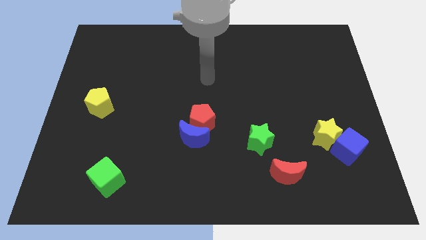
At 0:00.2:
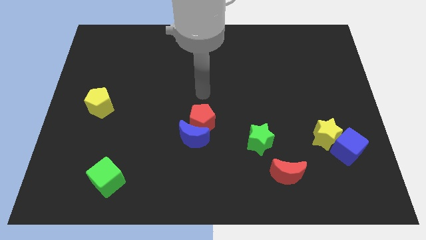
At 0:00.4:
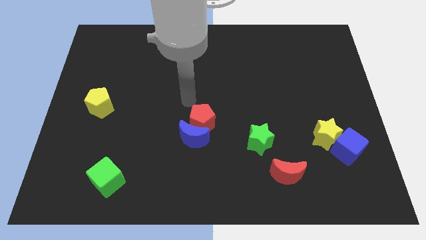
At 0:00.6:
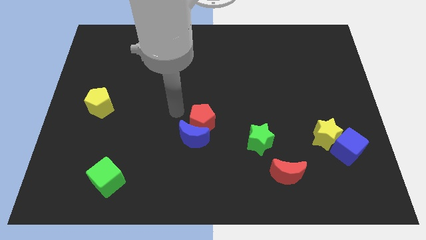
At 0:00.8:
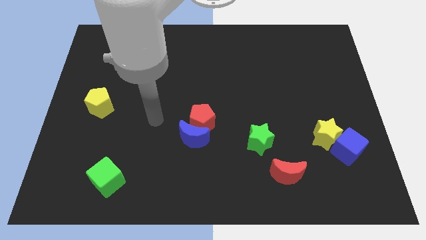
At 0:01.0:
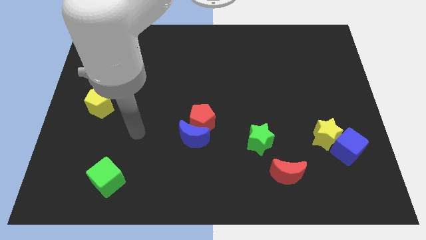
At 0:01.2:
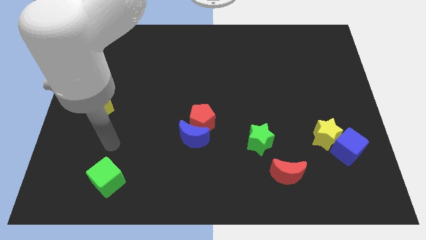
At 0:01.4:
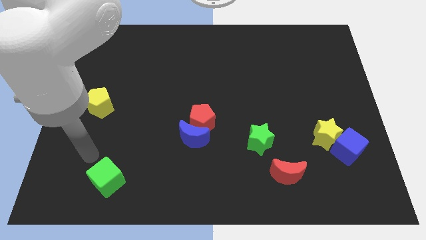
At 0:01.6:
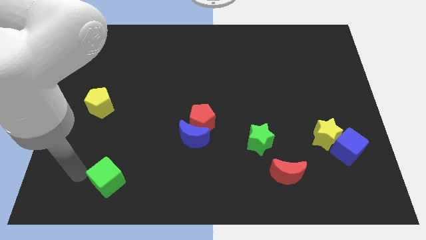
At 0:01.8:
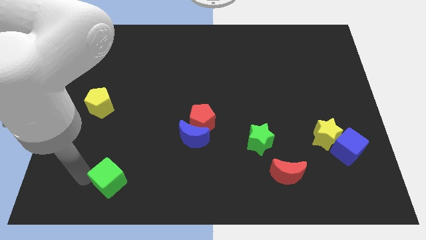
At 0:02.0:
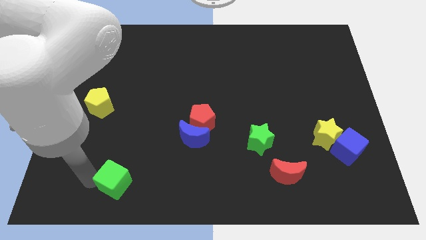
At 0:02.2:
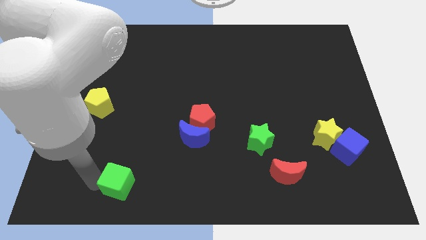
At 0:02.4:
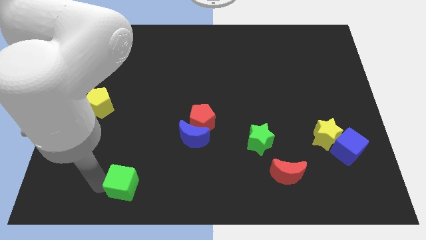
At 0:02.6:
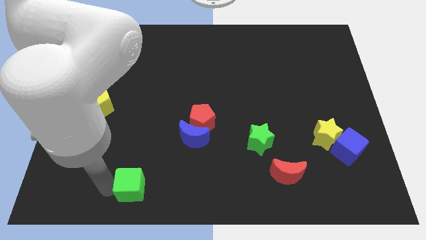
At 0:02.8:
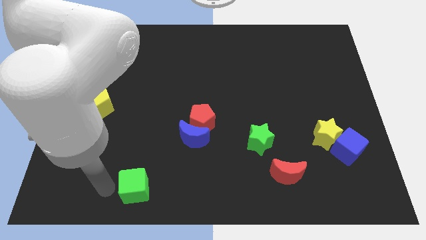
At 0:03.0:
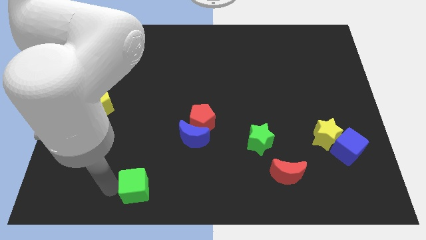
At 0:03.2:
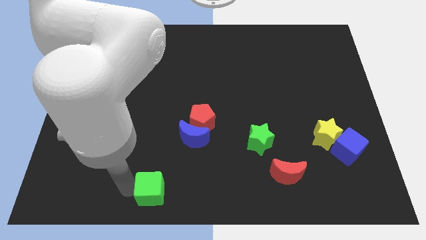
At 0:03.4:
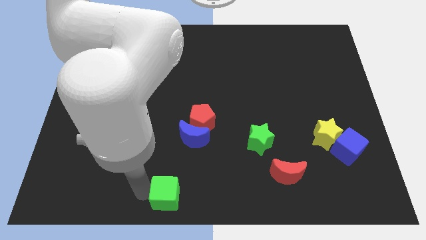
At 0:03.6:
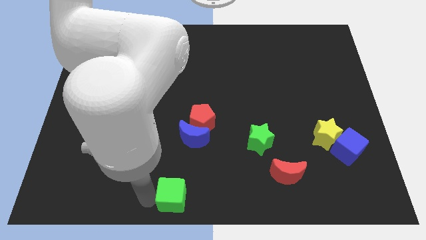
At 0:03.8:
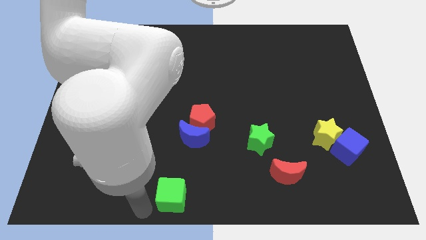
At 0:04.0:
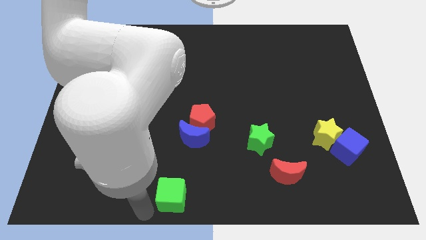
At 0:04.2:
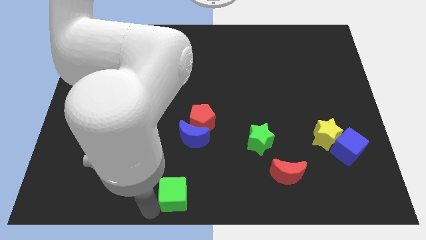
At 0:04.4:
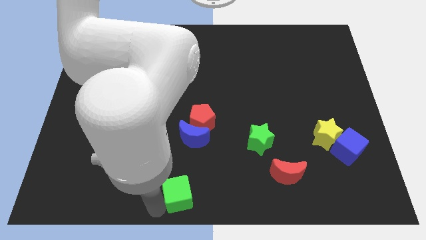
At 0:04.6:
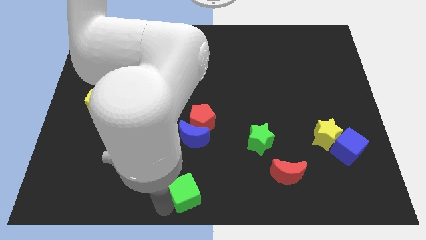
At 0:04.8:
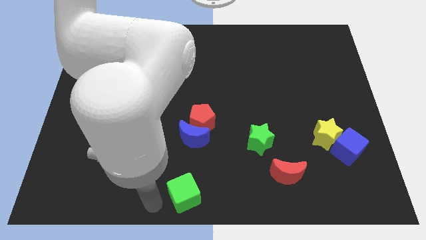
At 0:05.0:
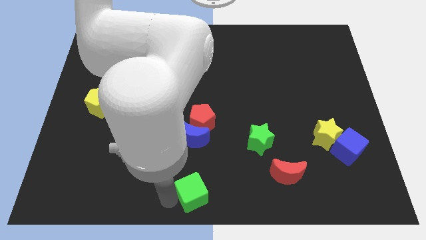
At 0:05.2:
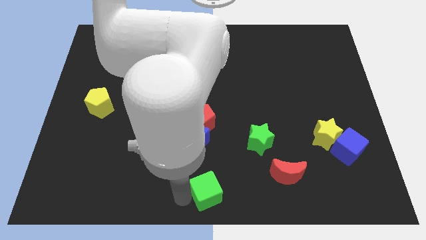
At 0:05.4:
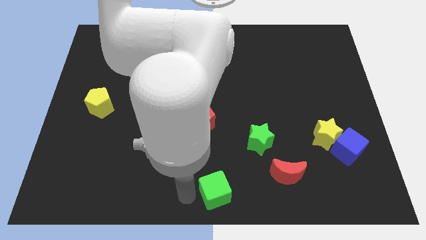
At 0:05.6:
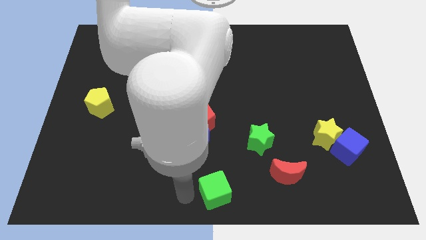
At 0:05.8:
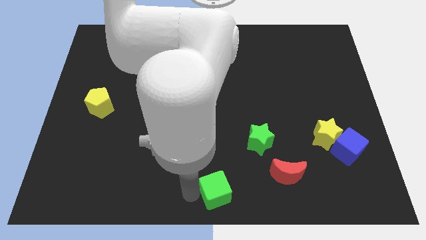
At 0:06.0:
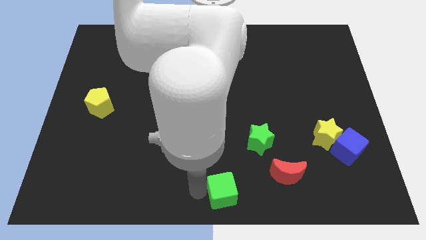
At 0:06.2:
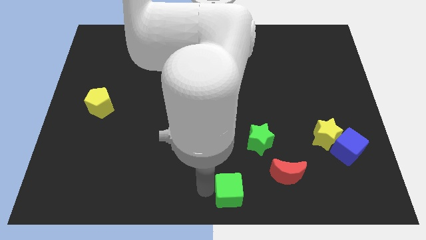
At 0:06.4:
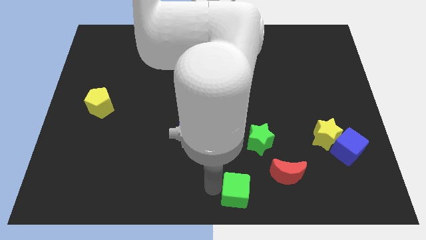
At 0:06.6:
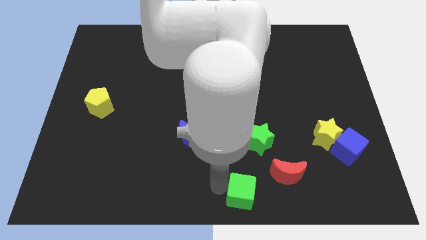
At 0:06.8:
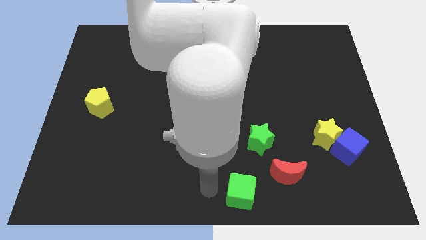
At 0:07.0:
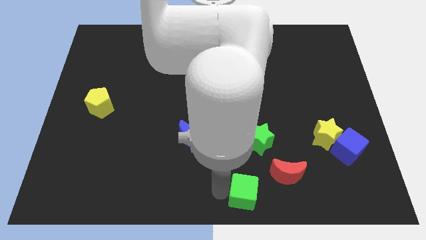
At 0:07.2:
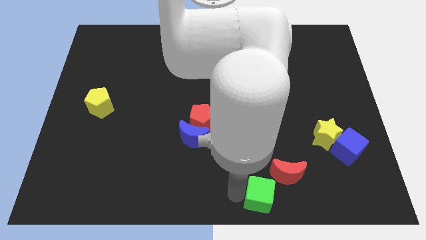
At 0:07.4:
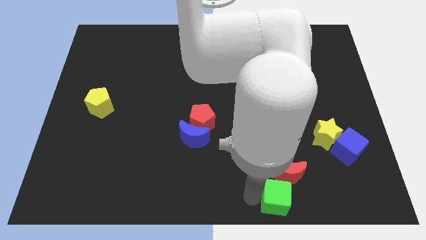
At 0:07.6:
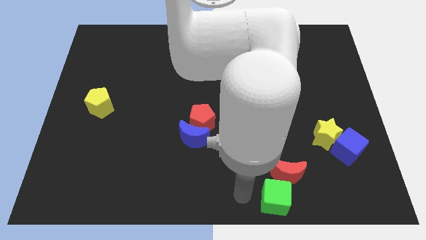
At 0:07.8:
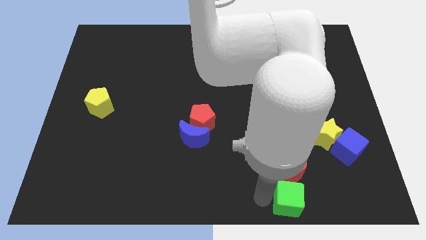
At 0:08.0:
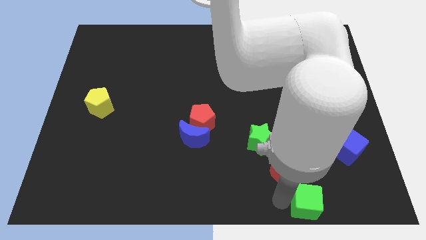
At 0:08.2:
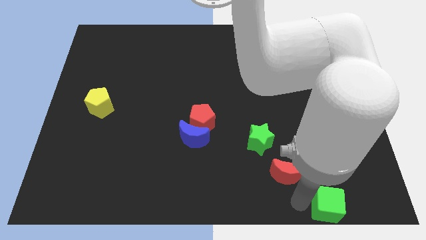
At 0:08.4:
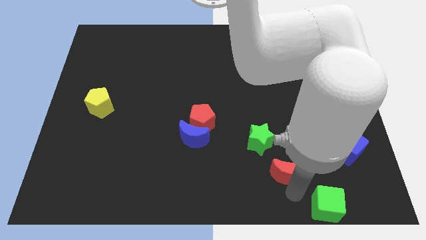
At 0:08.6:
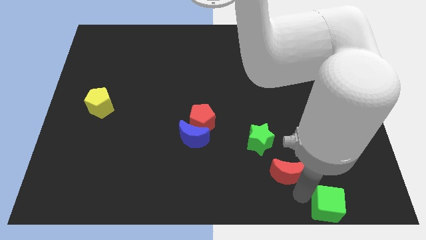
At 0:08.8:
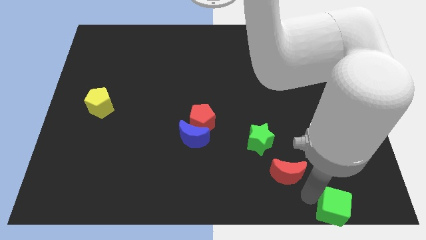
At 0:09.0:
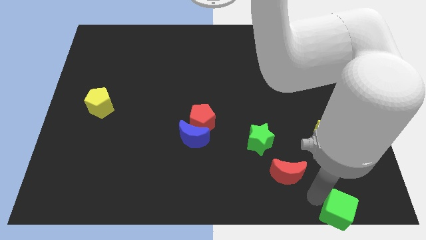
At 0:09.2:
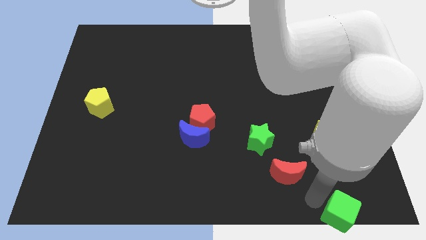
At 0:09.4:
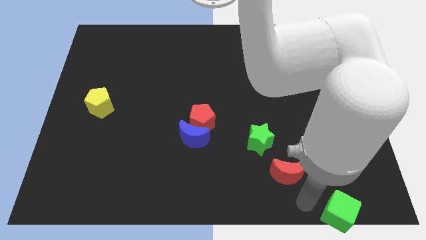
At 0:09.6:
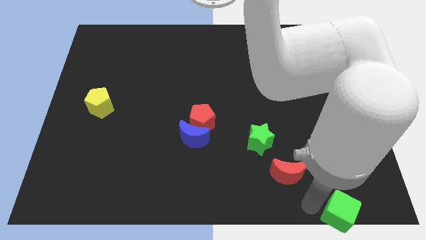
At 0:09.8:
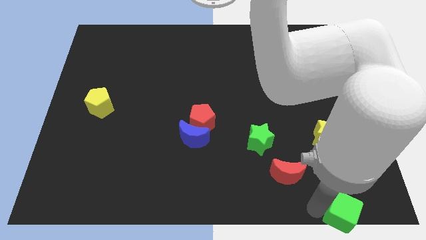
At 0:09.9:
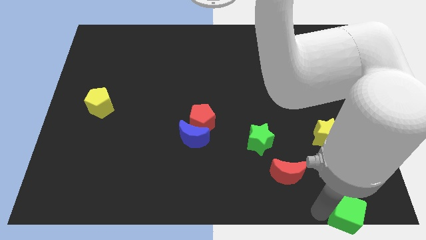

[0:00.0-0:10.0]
push the green cube to the bottom right corner

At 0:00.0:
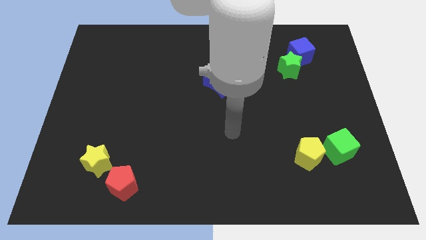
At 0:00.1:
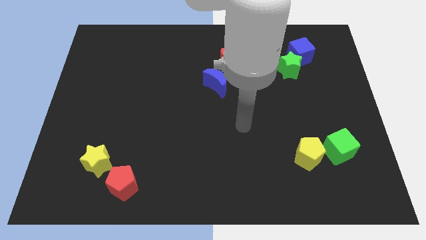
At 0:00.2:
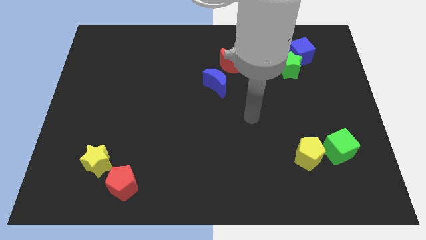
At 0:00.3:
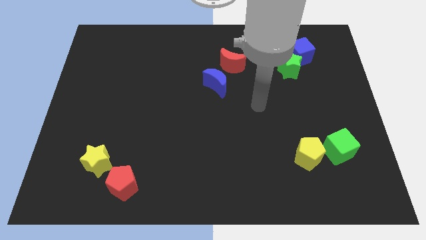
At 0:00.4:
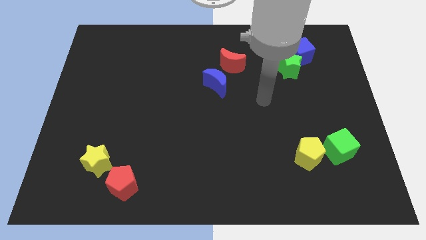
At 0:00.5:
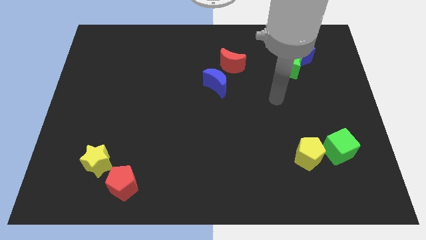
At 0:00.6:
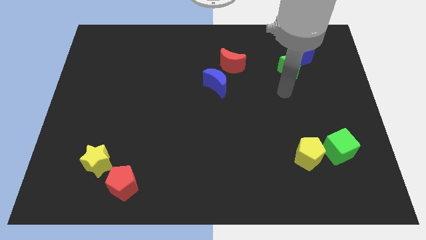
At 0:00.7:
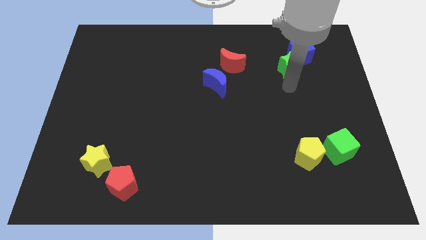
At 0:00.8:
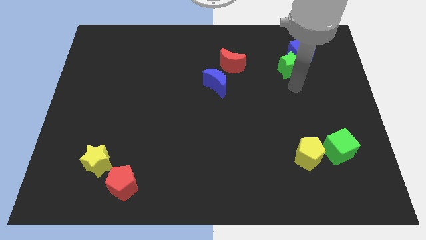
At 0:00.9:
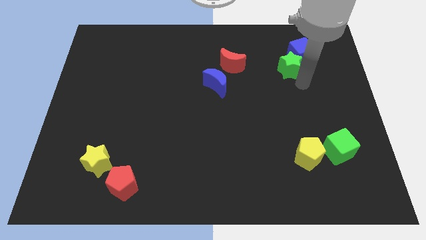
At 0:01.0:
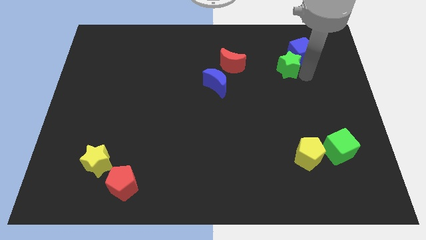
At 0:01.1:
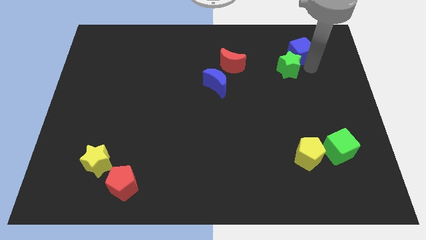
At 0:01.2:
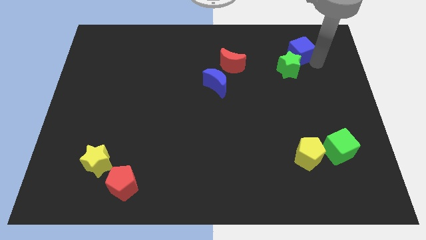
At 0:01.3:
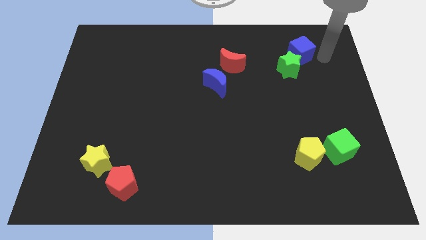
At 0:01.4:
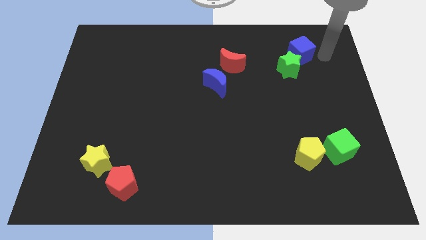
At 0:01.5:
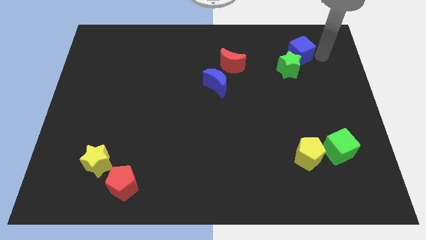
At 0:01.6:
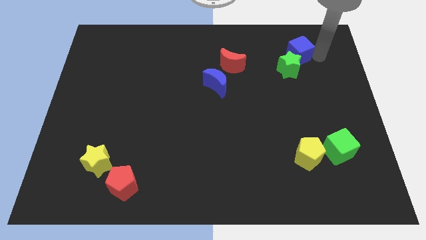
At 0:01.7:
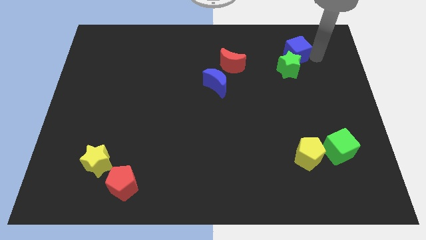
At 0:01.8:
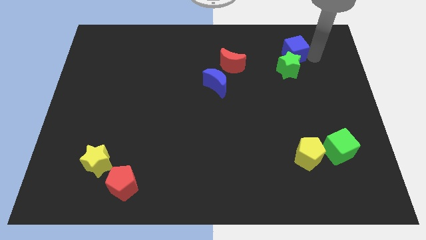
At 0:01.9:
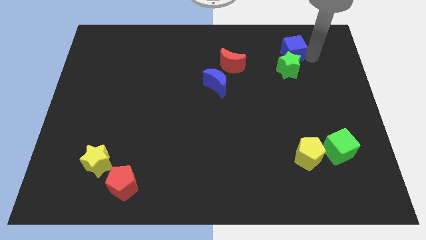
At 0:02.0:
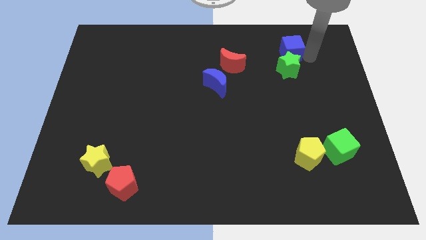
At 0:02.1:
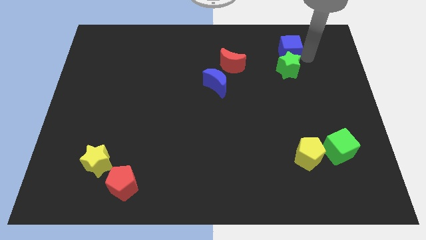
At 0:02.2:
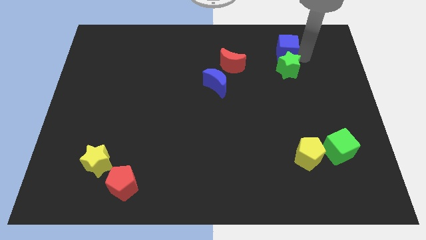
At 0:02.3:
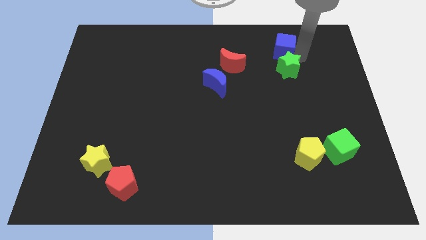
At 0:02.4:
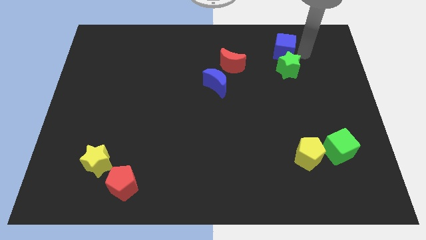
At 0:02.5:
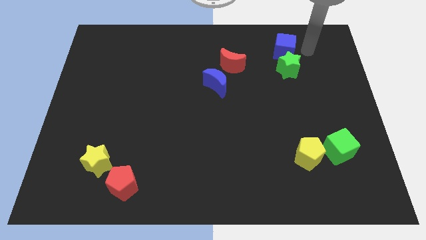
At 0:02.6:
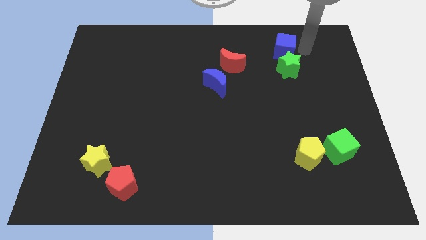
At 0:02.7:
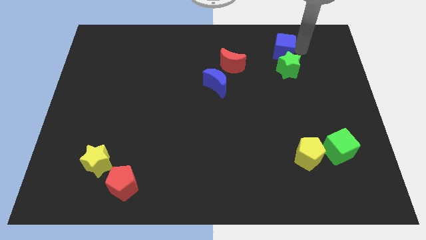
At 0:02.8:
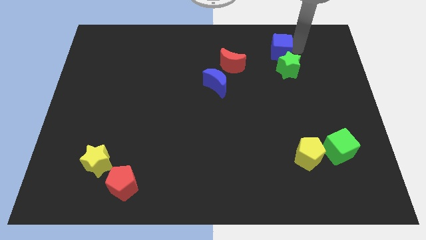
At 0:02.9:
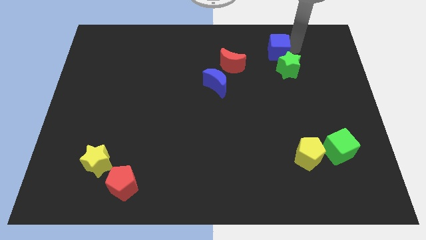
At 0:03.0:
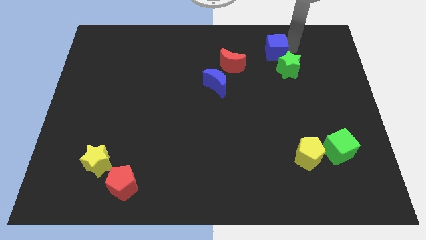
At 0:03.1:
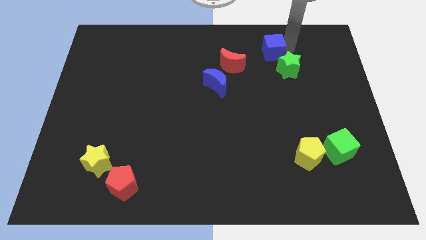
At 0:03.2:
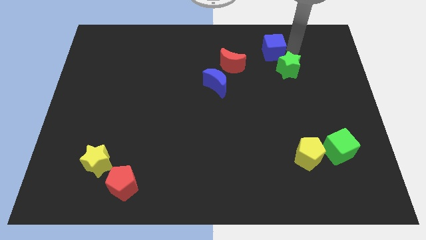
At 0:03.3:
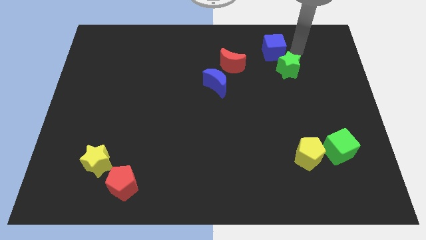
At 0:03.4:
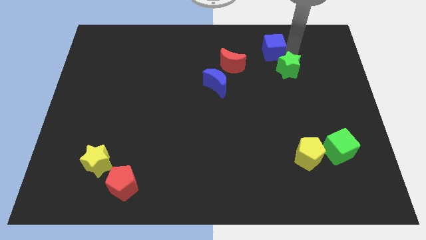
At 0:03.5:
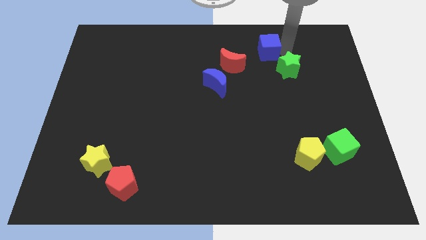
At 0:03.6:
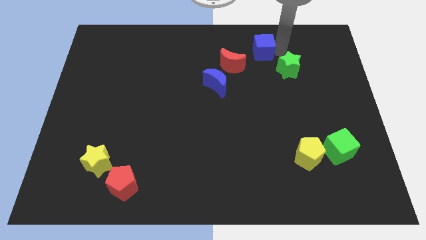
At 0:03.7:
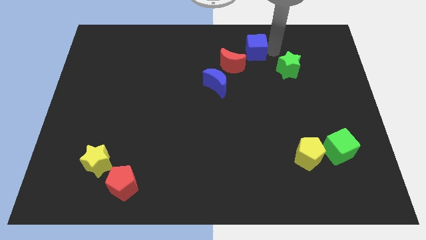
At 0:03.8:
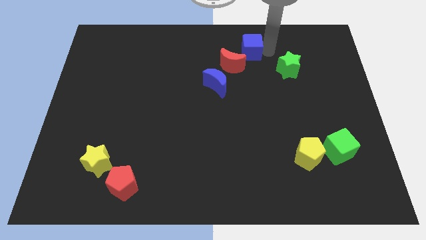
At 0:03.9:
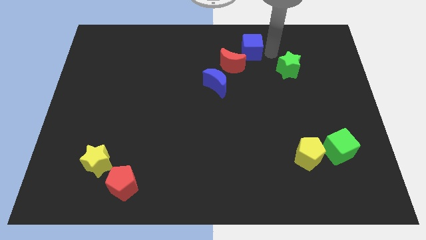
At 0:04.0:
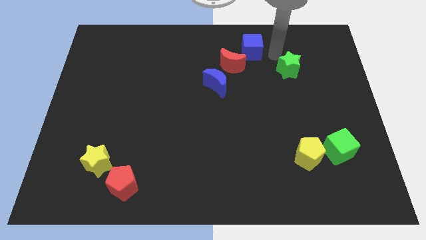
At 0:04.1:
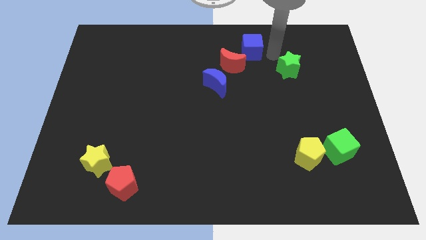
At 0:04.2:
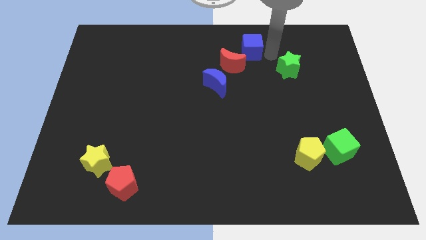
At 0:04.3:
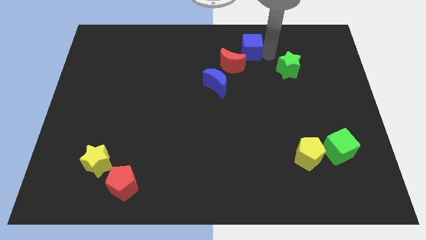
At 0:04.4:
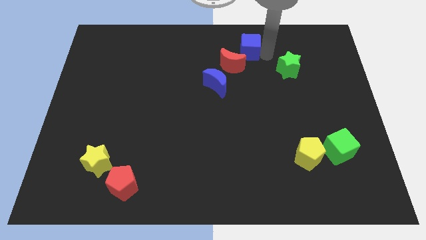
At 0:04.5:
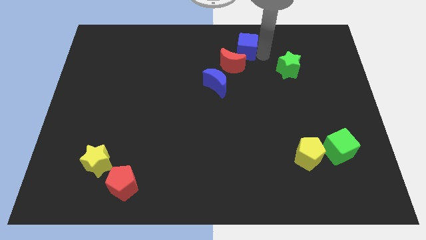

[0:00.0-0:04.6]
push the blue cube to the top side
